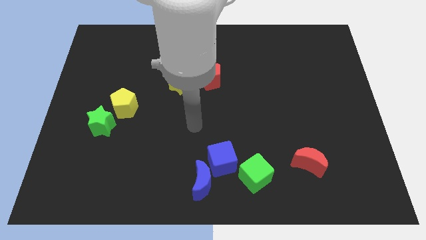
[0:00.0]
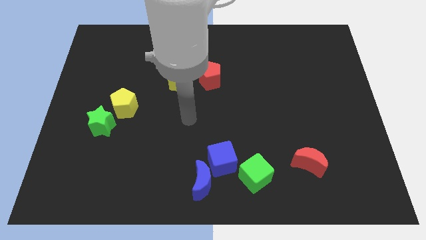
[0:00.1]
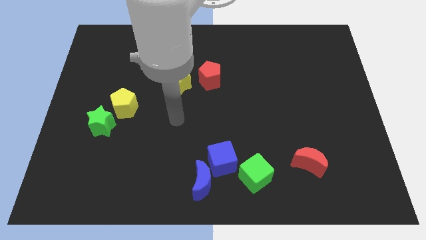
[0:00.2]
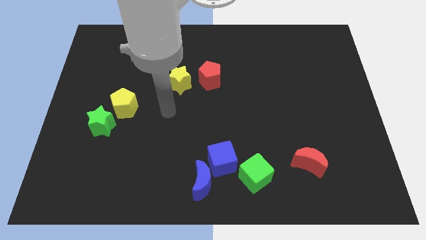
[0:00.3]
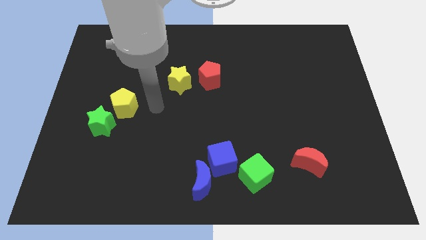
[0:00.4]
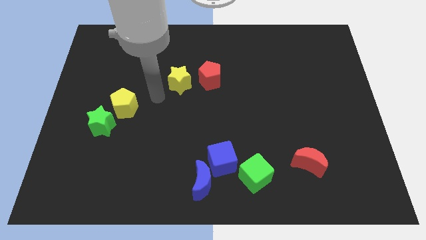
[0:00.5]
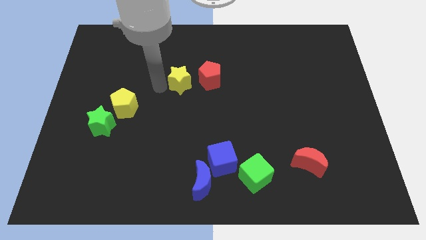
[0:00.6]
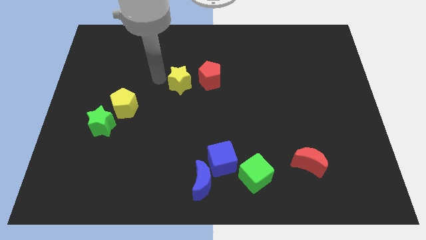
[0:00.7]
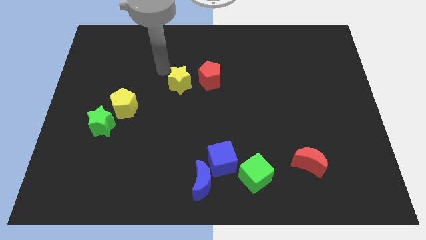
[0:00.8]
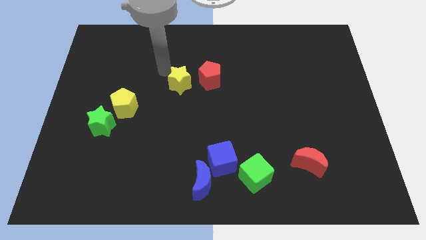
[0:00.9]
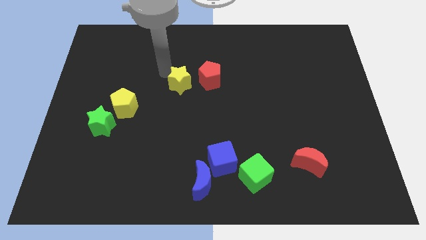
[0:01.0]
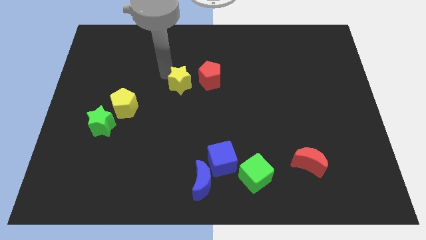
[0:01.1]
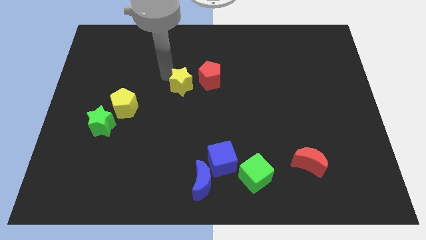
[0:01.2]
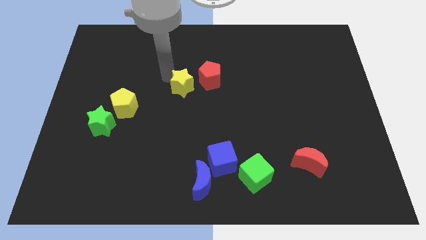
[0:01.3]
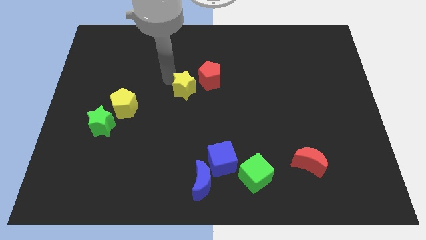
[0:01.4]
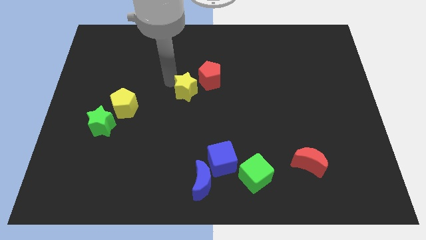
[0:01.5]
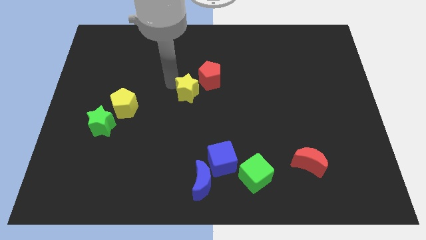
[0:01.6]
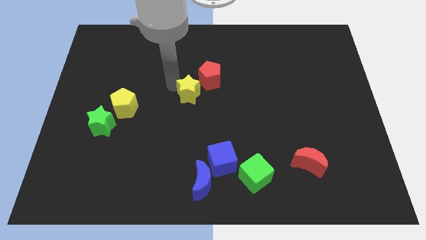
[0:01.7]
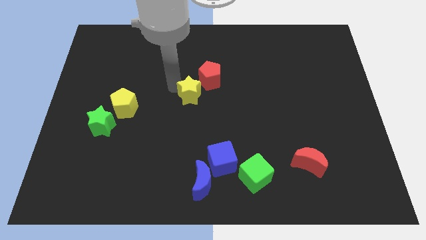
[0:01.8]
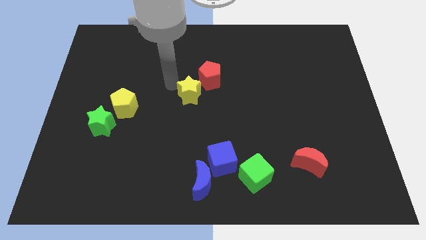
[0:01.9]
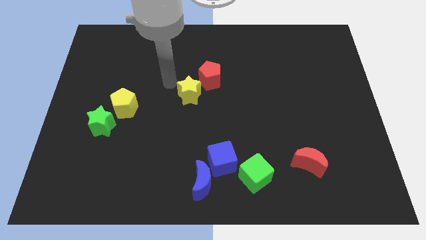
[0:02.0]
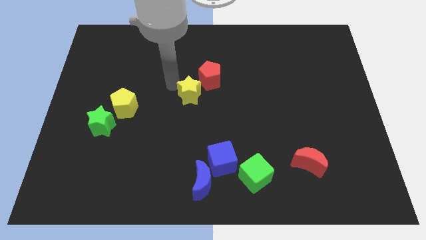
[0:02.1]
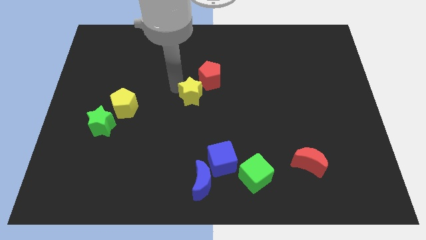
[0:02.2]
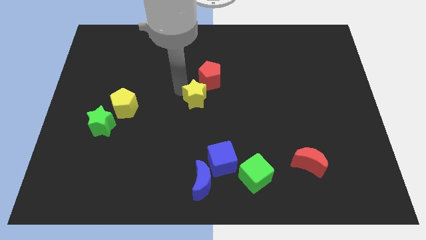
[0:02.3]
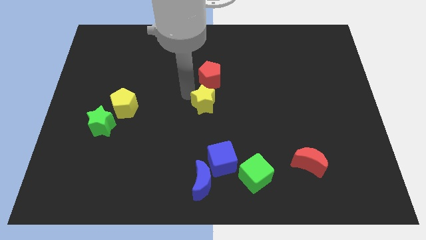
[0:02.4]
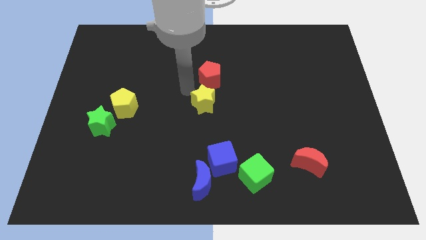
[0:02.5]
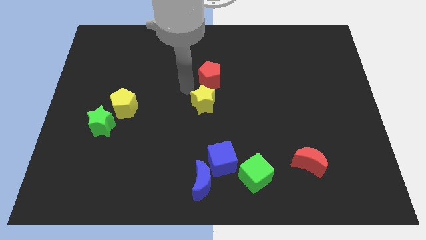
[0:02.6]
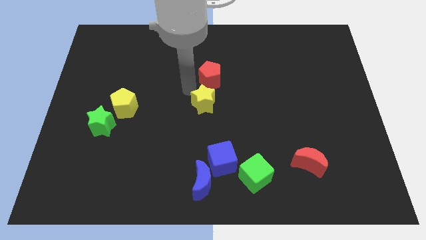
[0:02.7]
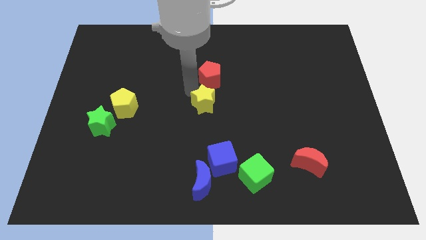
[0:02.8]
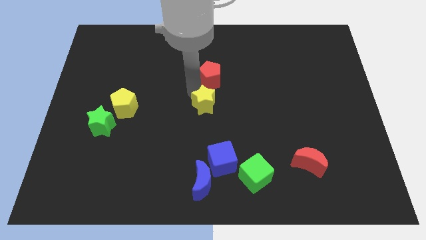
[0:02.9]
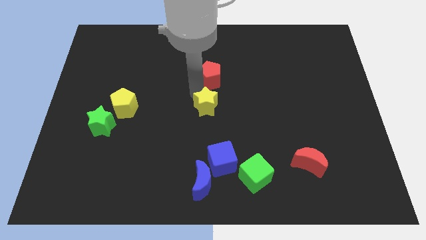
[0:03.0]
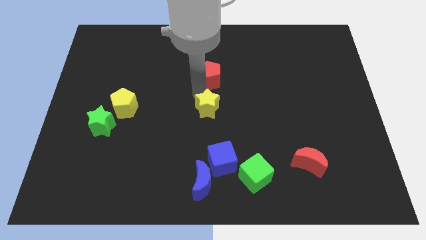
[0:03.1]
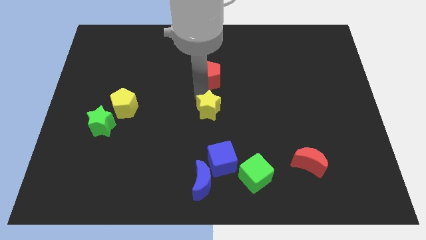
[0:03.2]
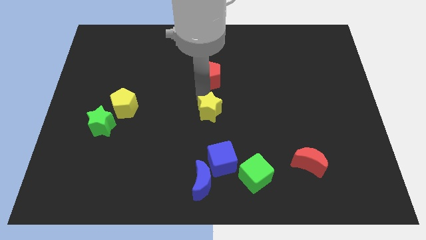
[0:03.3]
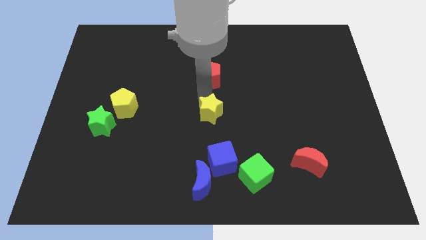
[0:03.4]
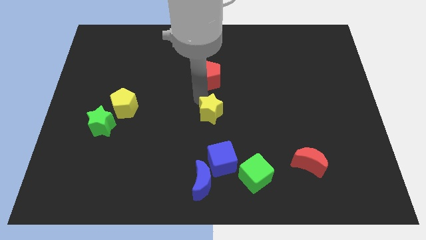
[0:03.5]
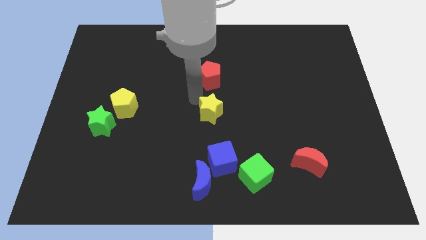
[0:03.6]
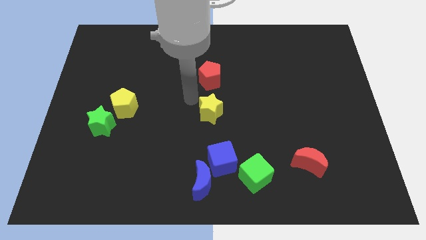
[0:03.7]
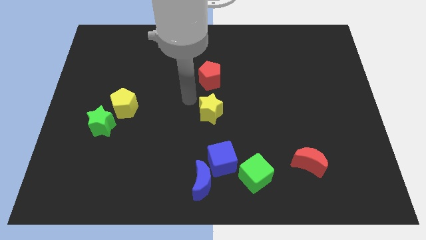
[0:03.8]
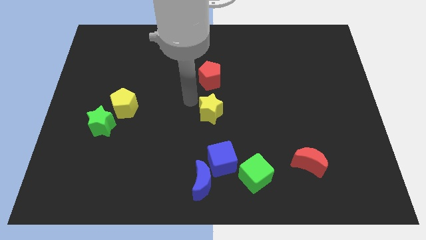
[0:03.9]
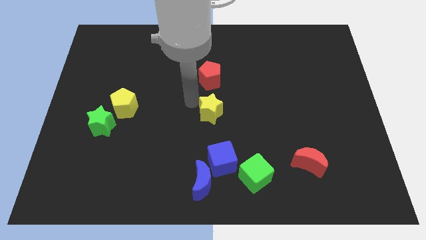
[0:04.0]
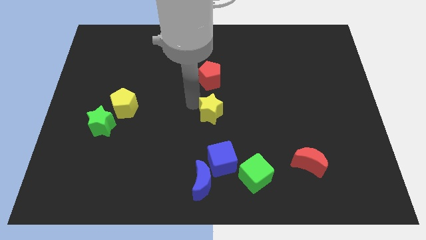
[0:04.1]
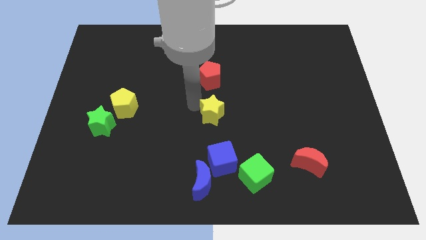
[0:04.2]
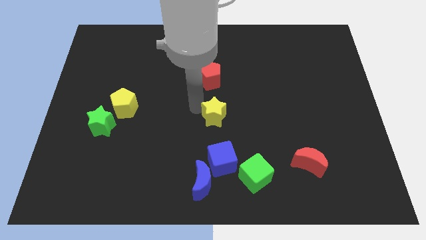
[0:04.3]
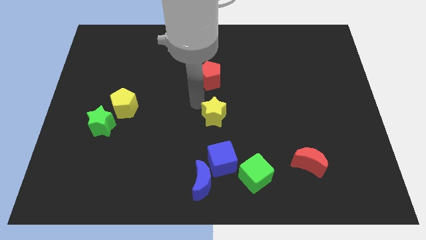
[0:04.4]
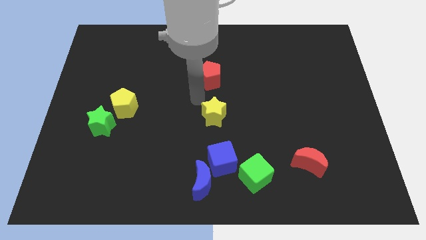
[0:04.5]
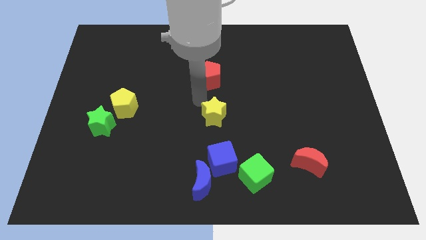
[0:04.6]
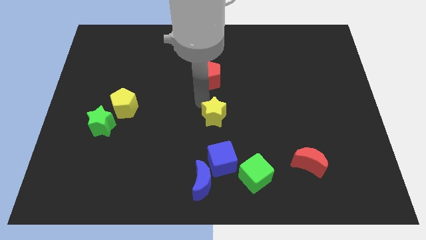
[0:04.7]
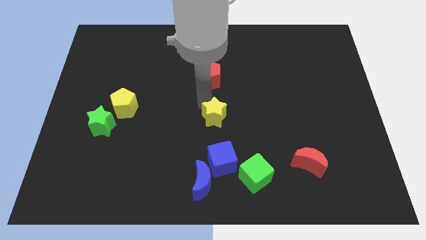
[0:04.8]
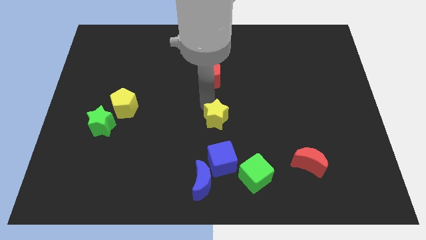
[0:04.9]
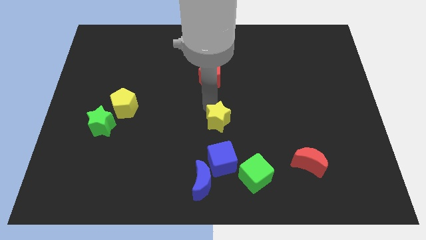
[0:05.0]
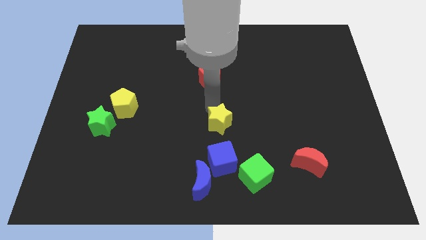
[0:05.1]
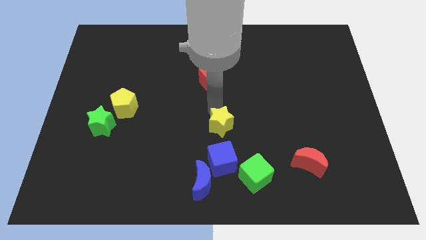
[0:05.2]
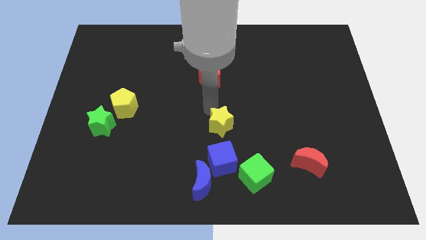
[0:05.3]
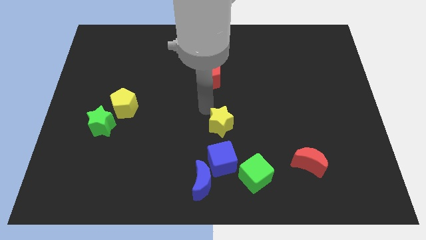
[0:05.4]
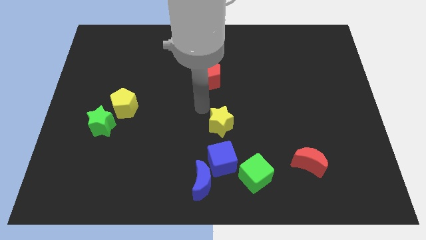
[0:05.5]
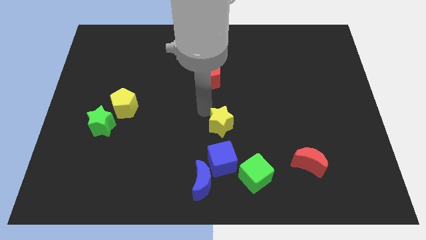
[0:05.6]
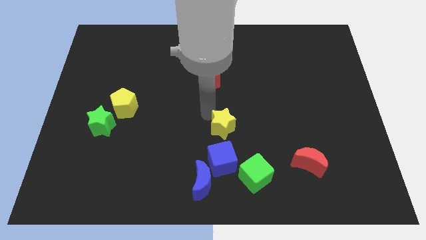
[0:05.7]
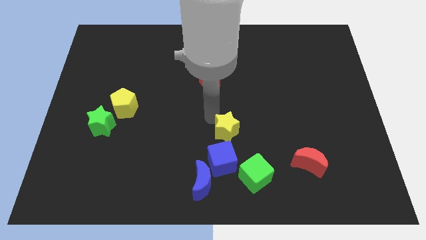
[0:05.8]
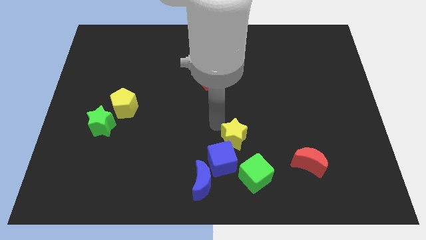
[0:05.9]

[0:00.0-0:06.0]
move the yellow star diagonally down and right

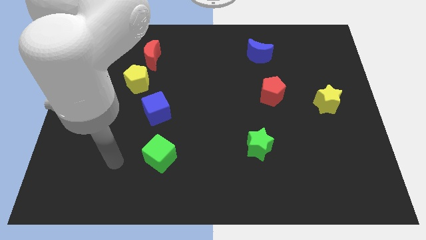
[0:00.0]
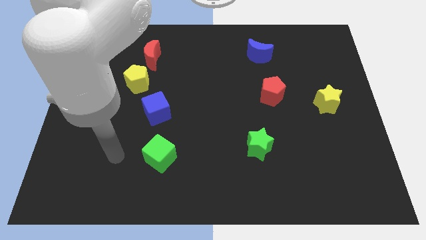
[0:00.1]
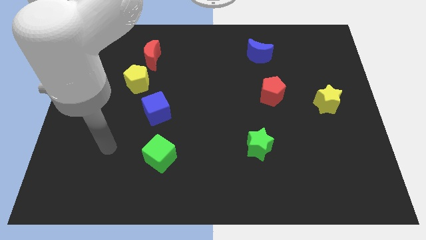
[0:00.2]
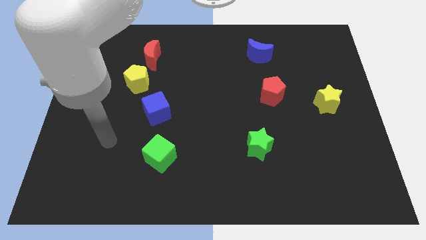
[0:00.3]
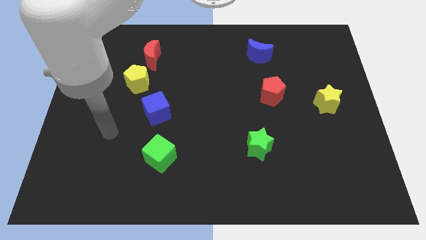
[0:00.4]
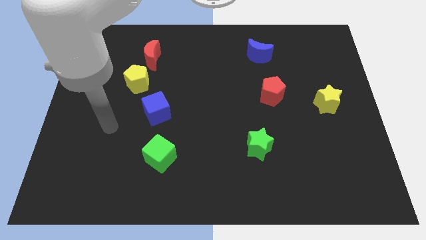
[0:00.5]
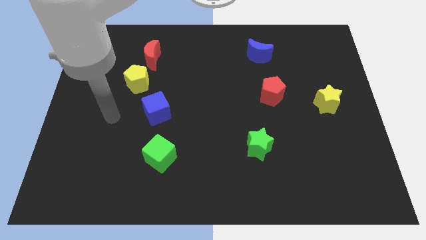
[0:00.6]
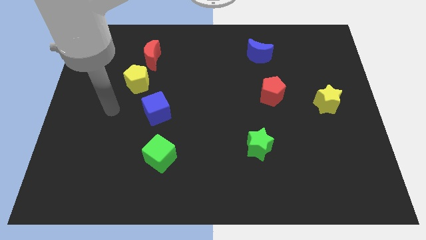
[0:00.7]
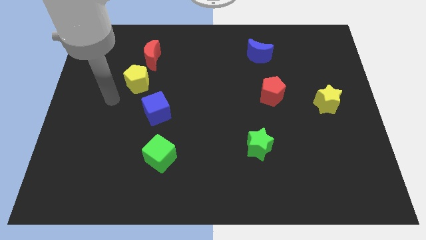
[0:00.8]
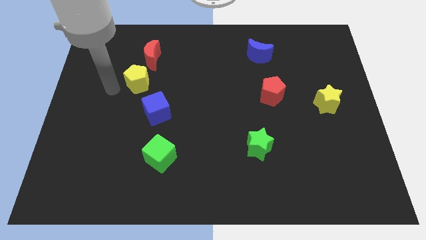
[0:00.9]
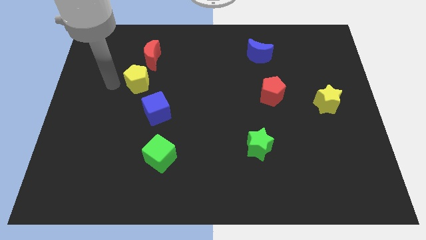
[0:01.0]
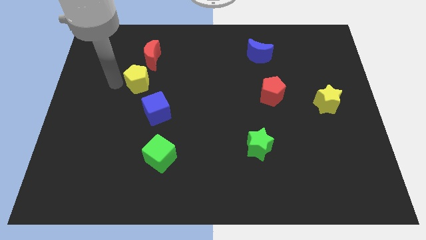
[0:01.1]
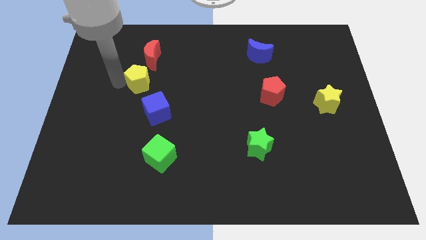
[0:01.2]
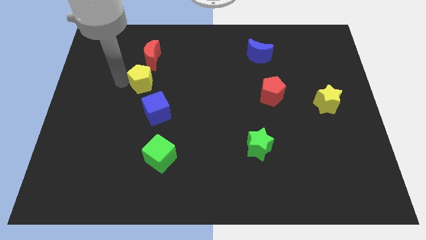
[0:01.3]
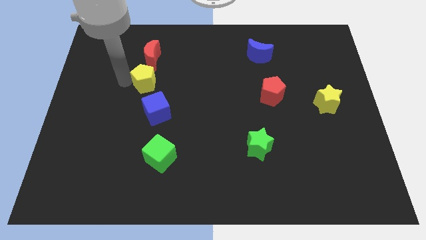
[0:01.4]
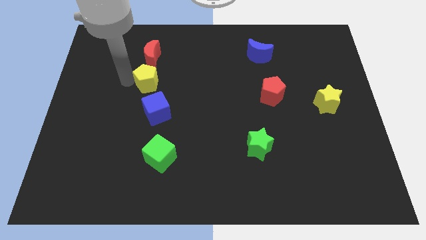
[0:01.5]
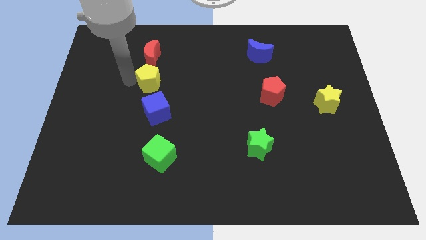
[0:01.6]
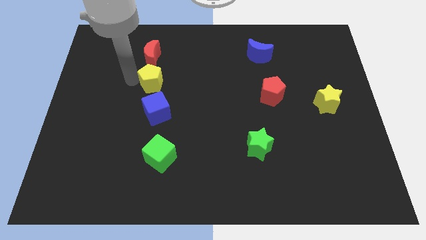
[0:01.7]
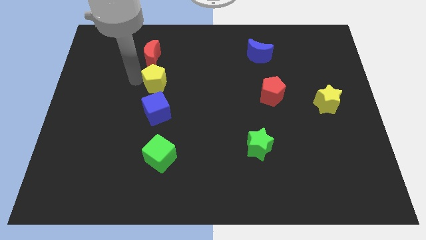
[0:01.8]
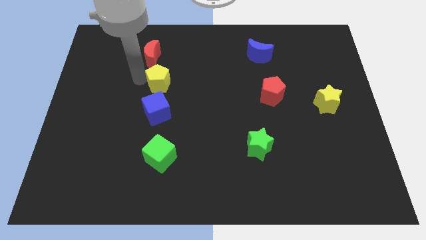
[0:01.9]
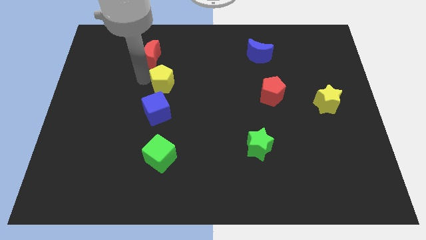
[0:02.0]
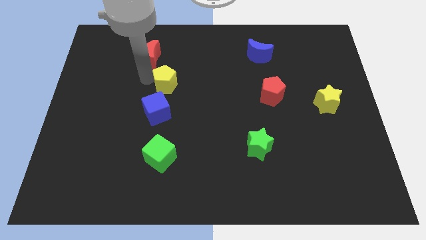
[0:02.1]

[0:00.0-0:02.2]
slide the yellow pentagon right a bit

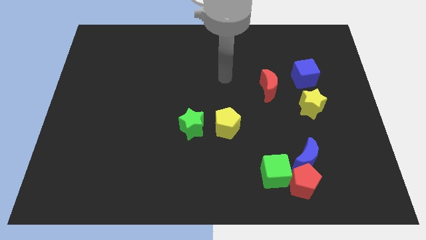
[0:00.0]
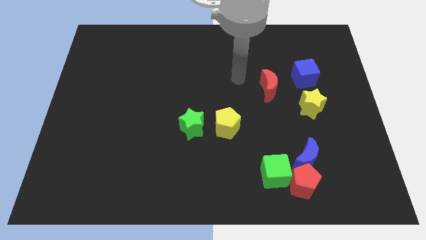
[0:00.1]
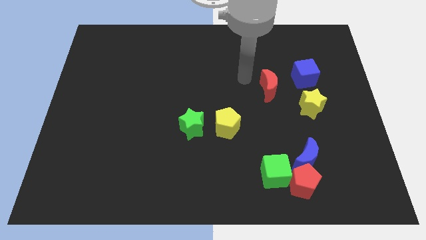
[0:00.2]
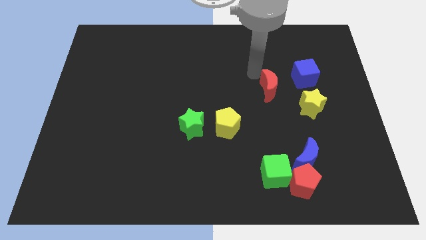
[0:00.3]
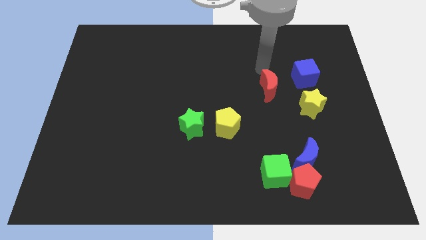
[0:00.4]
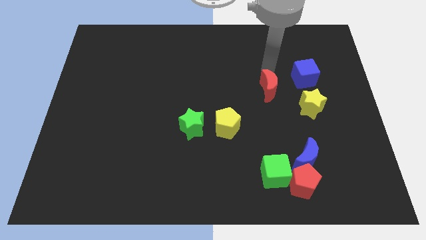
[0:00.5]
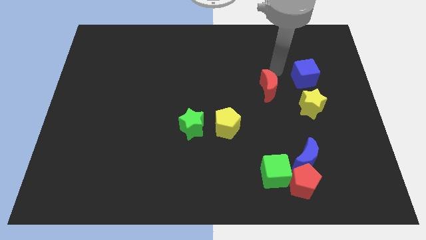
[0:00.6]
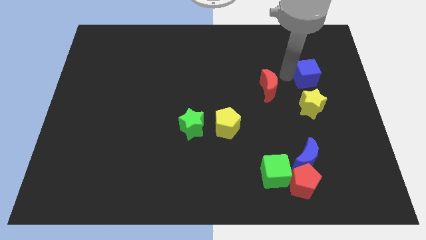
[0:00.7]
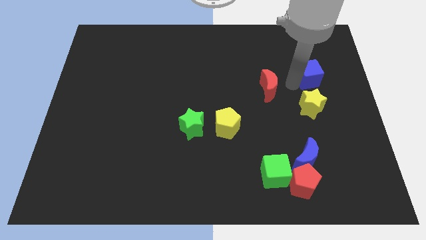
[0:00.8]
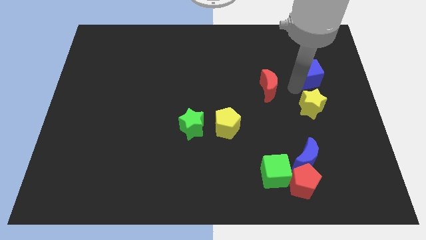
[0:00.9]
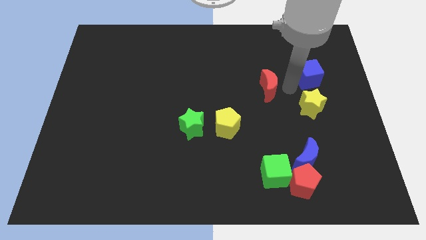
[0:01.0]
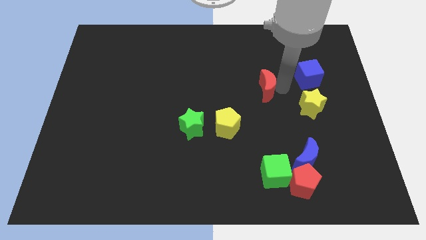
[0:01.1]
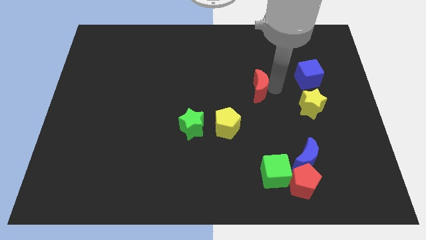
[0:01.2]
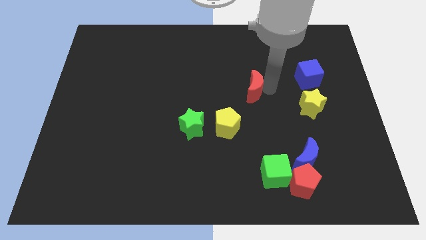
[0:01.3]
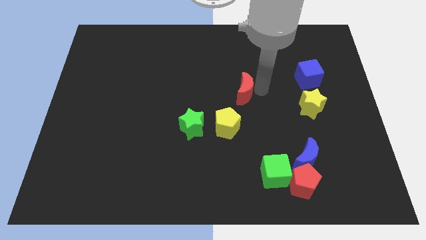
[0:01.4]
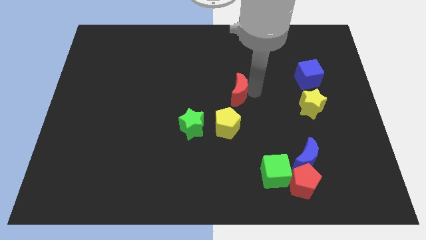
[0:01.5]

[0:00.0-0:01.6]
push the red moon a little bit left
